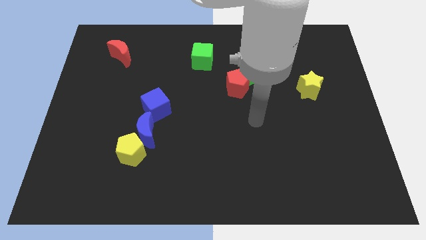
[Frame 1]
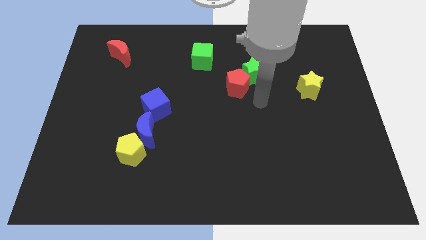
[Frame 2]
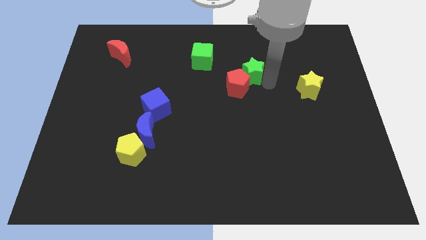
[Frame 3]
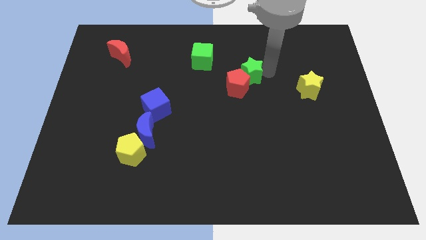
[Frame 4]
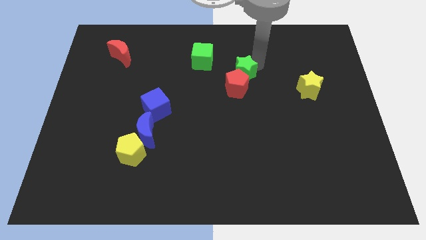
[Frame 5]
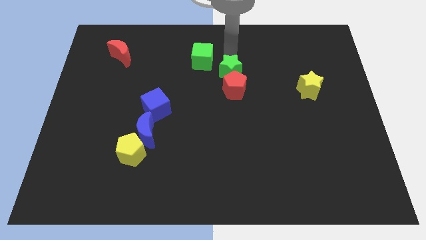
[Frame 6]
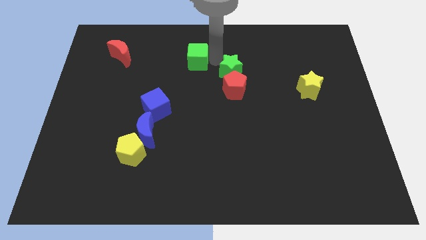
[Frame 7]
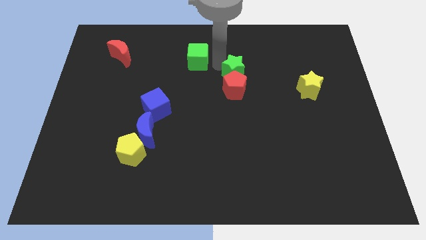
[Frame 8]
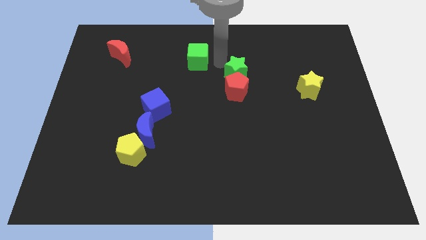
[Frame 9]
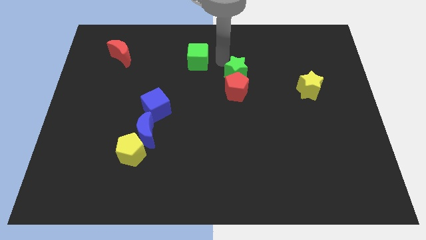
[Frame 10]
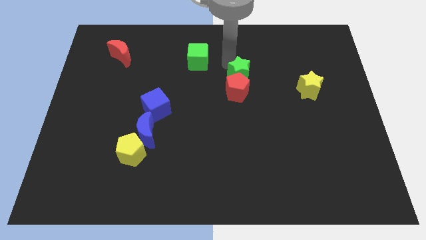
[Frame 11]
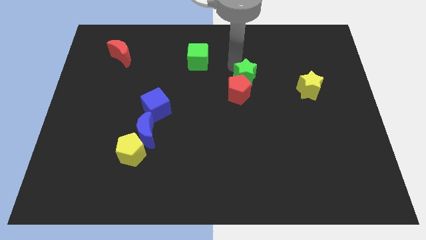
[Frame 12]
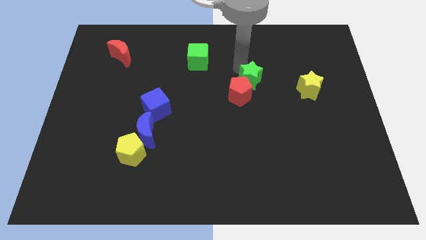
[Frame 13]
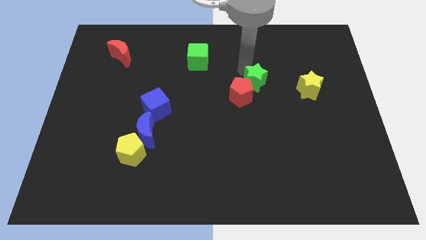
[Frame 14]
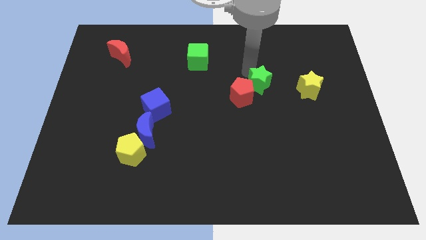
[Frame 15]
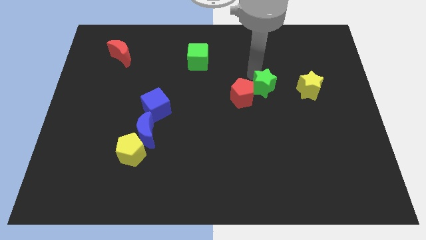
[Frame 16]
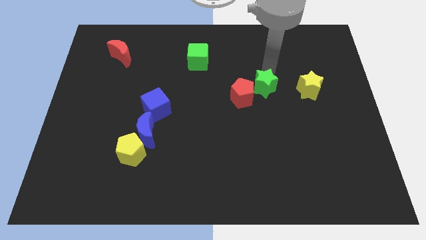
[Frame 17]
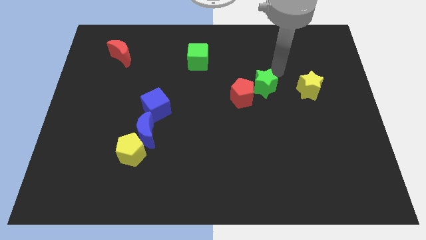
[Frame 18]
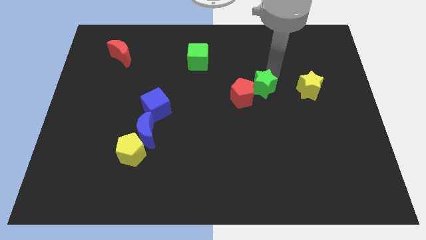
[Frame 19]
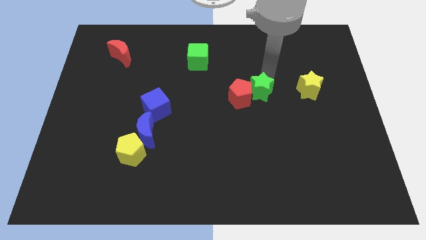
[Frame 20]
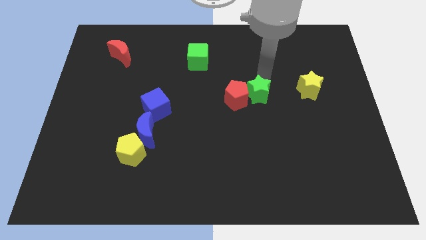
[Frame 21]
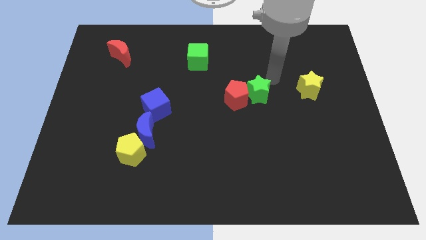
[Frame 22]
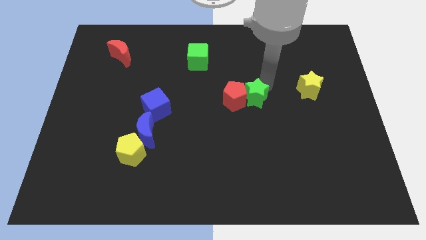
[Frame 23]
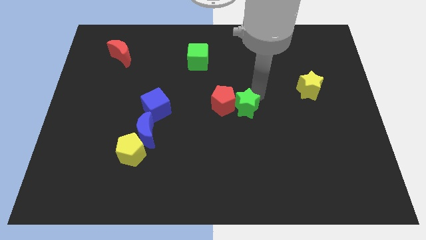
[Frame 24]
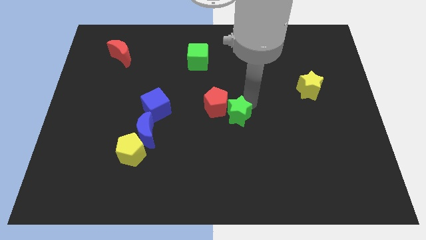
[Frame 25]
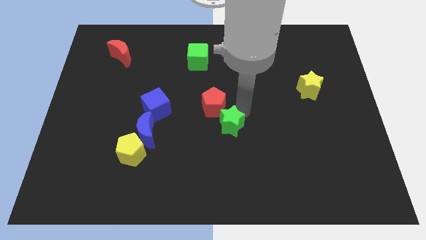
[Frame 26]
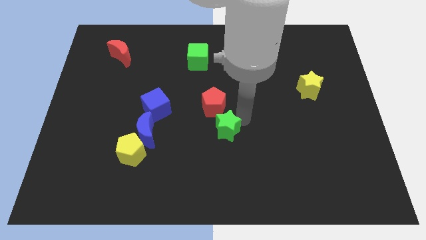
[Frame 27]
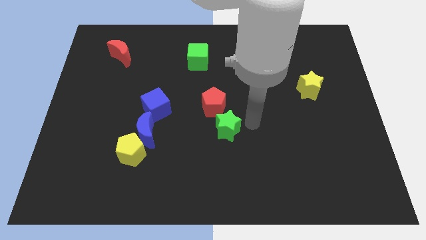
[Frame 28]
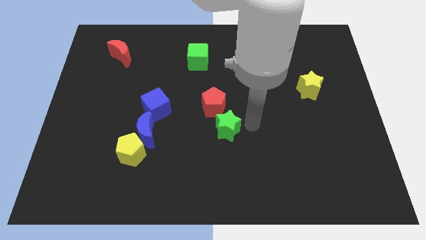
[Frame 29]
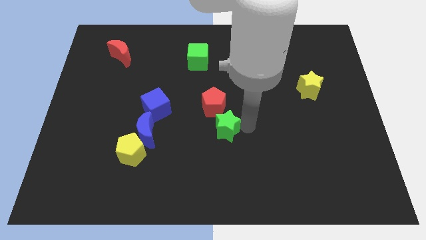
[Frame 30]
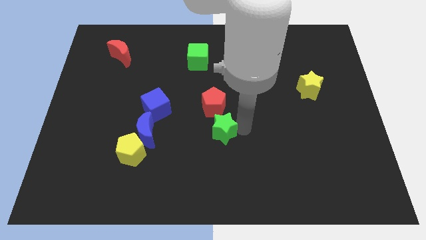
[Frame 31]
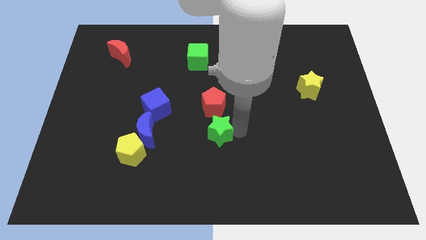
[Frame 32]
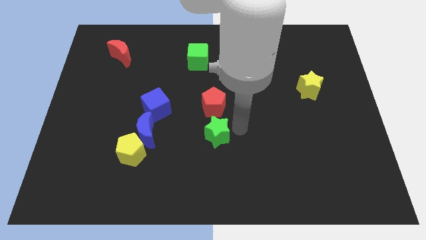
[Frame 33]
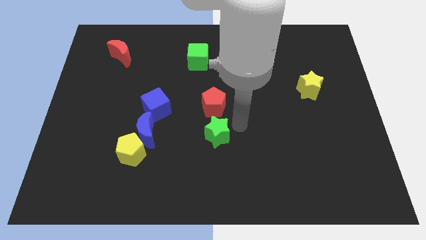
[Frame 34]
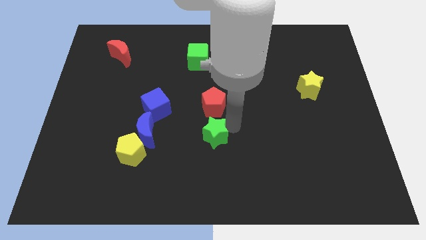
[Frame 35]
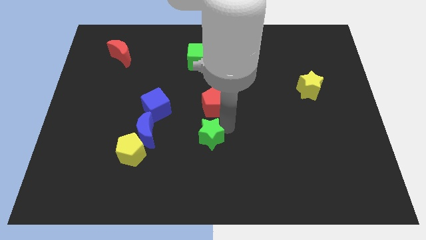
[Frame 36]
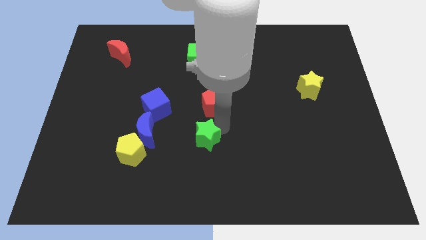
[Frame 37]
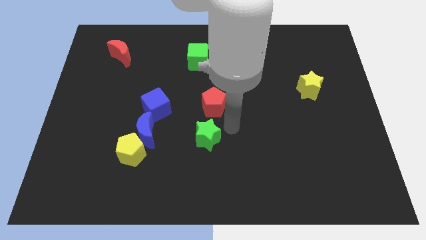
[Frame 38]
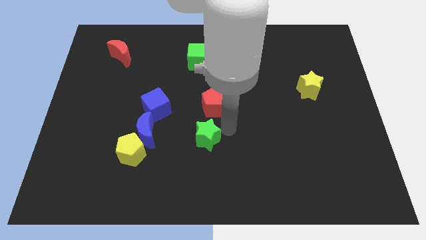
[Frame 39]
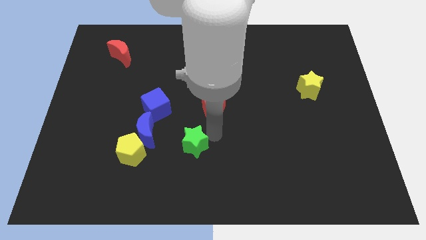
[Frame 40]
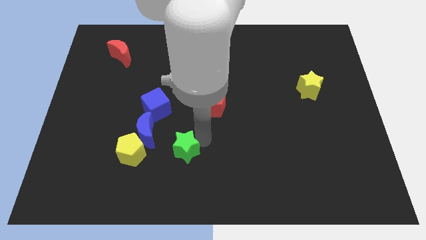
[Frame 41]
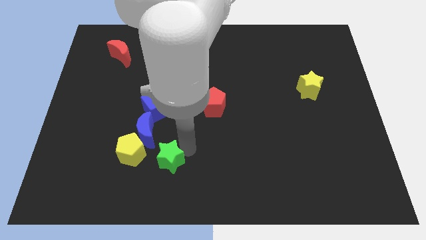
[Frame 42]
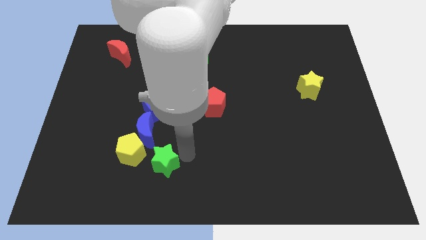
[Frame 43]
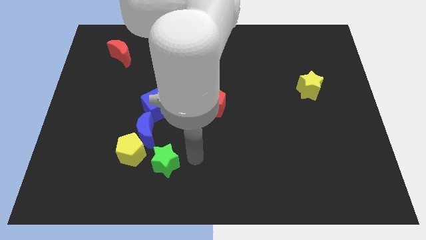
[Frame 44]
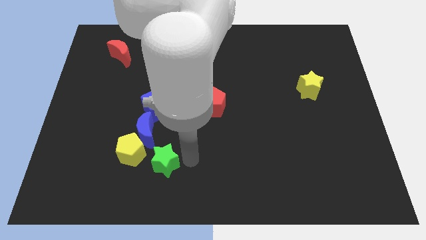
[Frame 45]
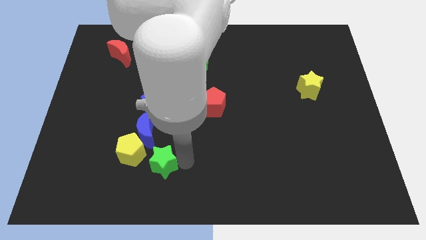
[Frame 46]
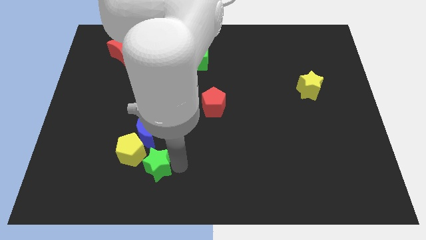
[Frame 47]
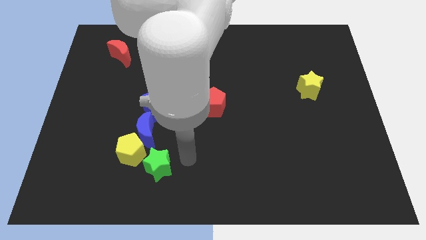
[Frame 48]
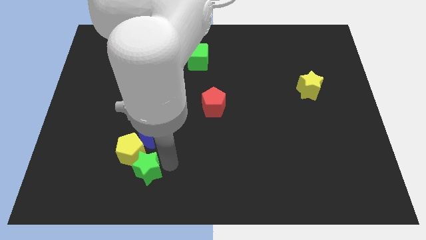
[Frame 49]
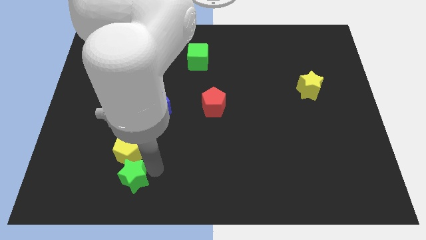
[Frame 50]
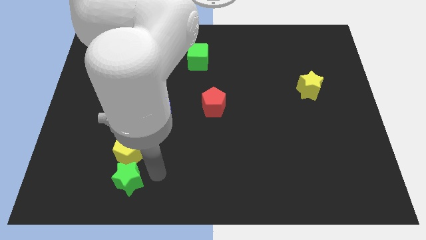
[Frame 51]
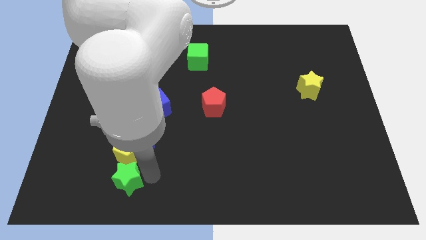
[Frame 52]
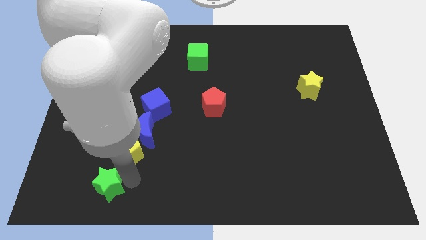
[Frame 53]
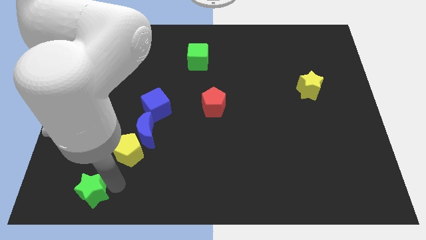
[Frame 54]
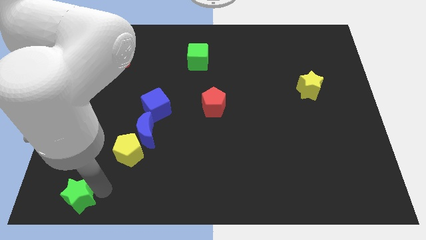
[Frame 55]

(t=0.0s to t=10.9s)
move the green star to the bottom left of the board
